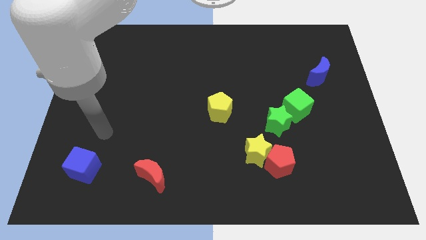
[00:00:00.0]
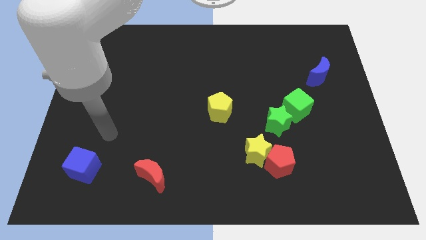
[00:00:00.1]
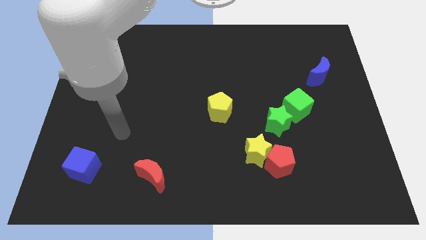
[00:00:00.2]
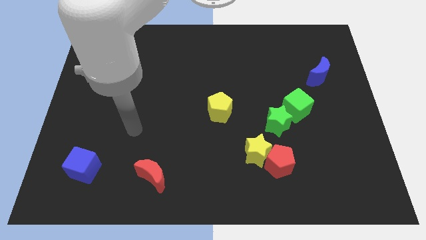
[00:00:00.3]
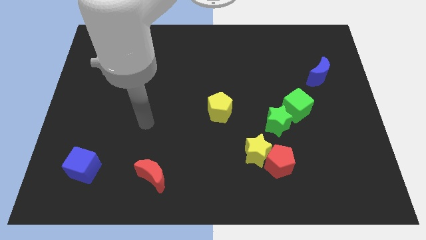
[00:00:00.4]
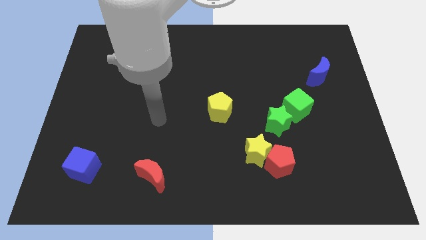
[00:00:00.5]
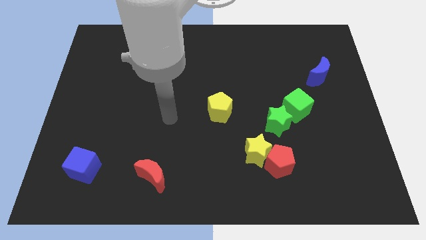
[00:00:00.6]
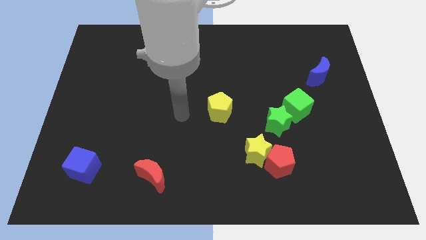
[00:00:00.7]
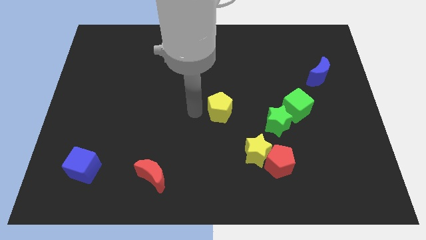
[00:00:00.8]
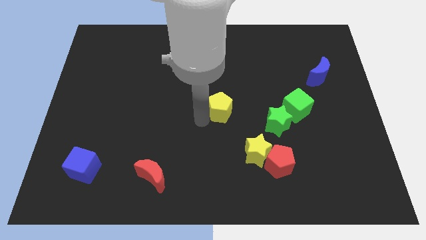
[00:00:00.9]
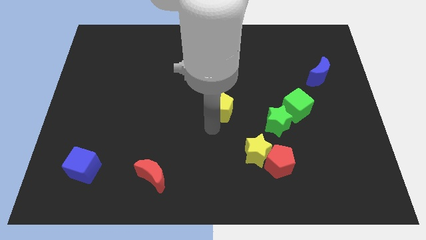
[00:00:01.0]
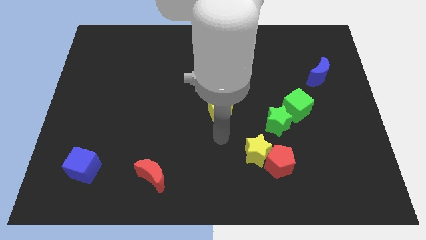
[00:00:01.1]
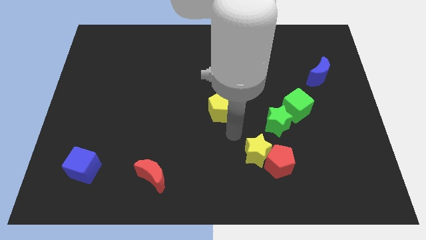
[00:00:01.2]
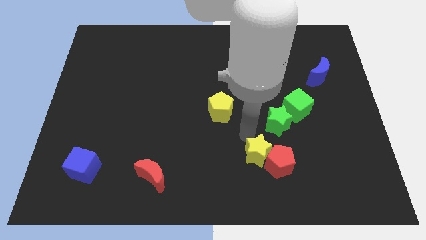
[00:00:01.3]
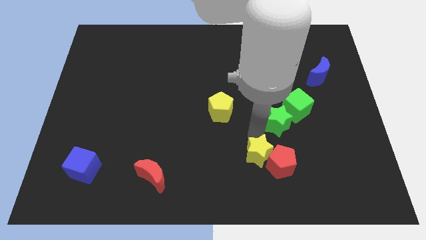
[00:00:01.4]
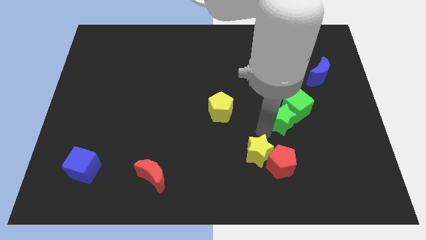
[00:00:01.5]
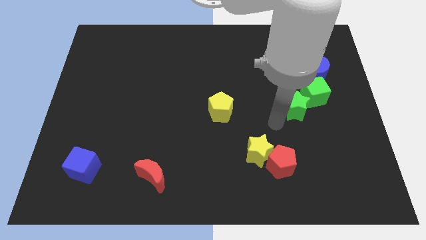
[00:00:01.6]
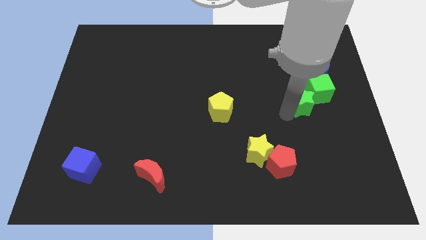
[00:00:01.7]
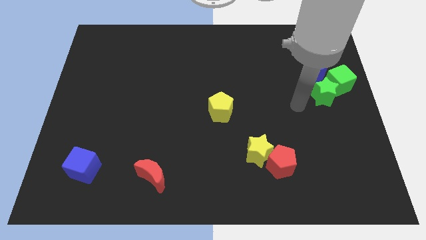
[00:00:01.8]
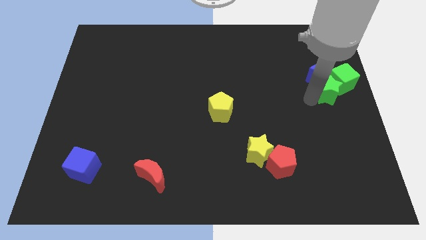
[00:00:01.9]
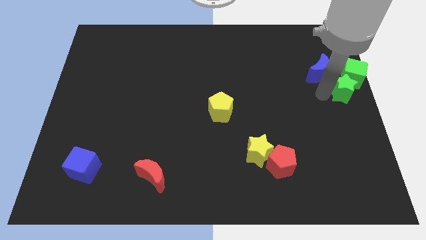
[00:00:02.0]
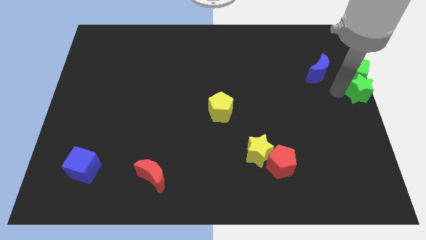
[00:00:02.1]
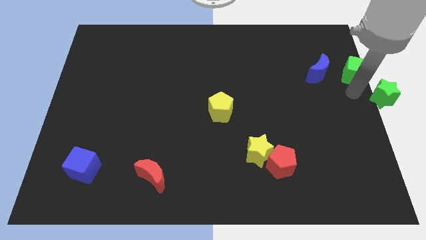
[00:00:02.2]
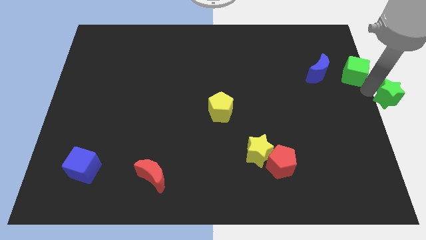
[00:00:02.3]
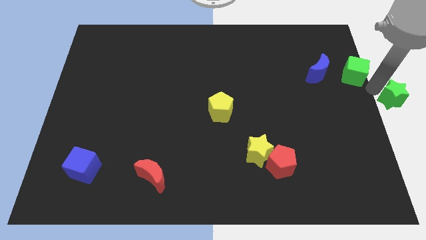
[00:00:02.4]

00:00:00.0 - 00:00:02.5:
move the green cube away from the green star

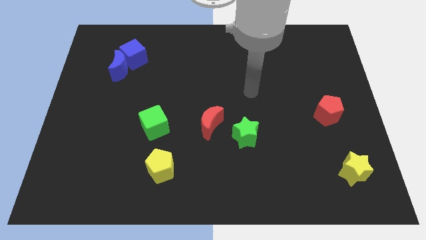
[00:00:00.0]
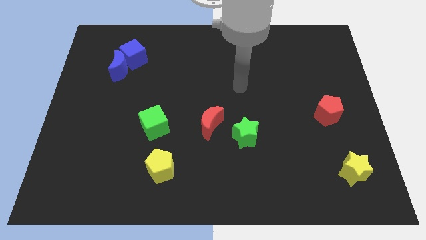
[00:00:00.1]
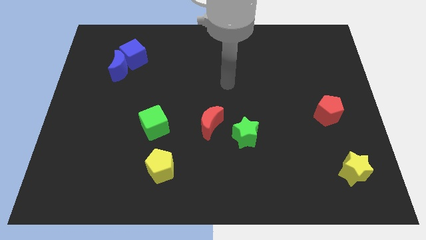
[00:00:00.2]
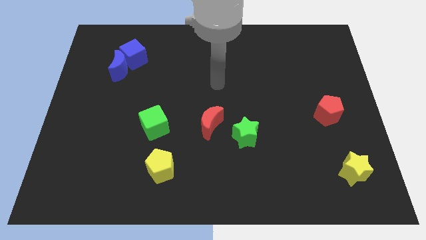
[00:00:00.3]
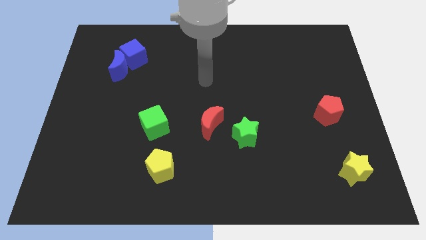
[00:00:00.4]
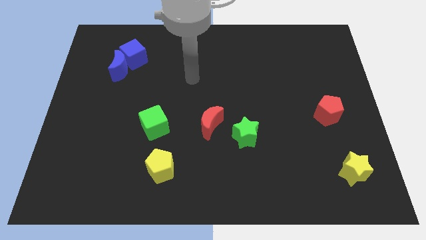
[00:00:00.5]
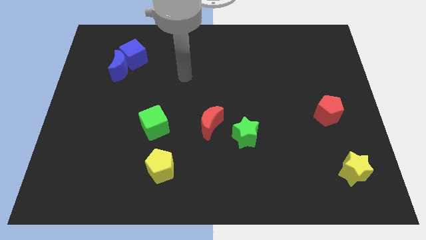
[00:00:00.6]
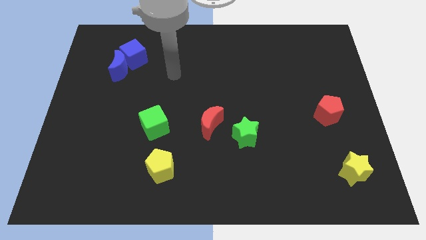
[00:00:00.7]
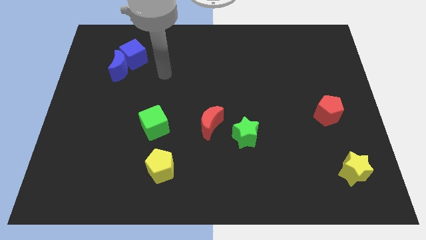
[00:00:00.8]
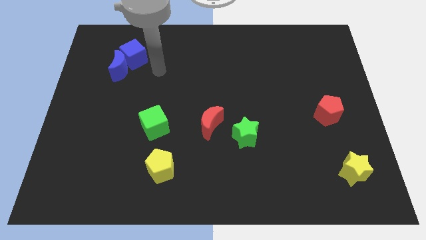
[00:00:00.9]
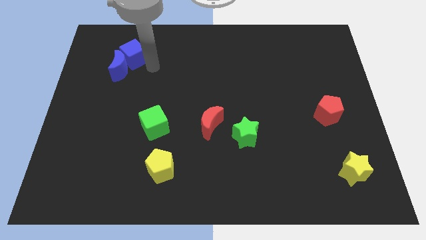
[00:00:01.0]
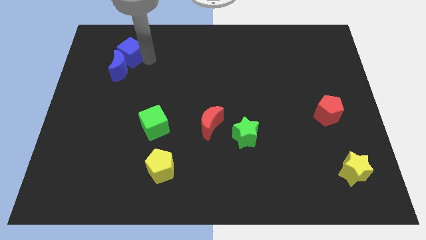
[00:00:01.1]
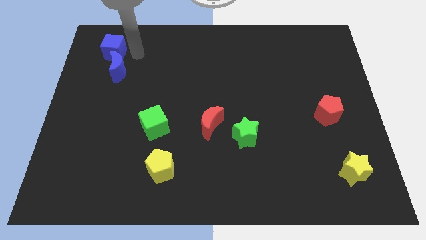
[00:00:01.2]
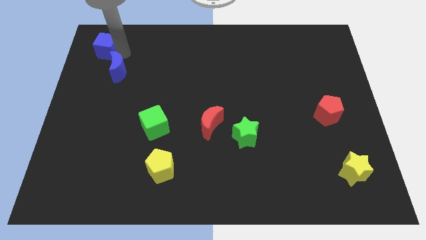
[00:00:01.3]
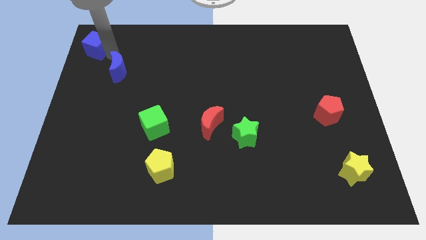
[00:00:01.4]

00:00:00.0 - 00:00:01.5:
separate the blue moon from the blue cube

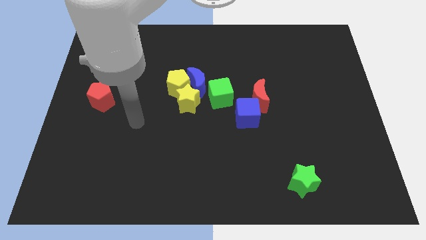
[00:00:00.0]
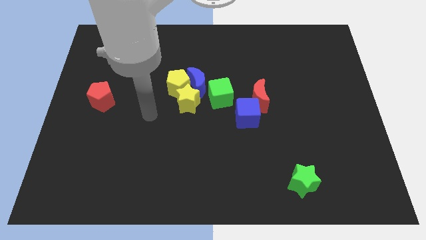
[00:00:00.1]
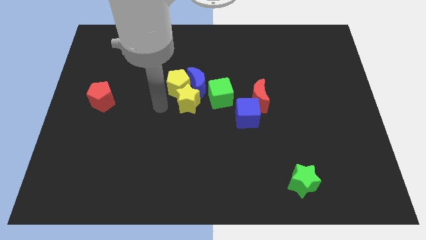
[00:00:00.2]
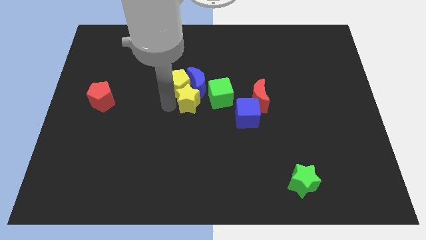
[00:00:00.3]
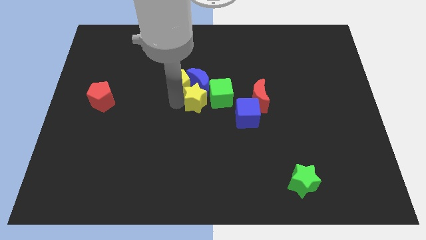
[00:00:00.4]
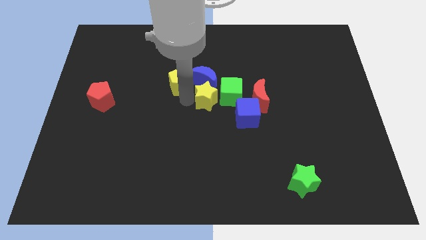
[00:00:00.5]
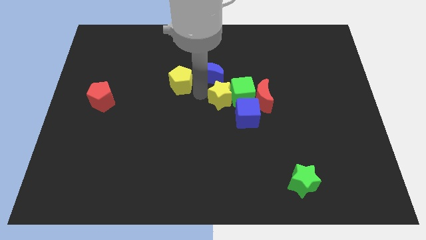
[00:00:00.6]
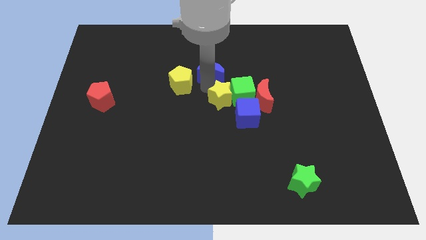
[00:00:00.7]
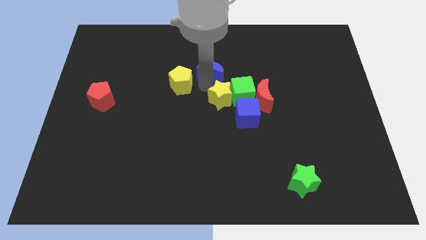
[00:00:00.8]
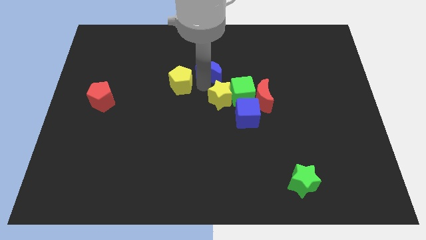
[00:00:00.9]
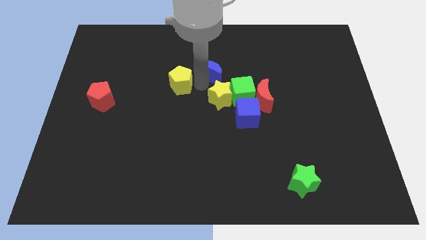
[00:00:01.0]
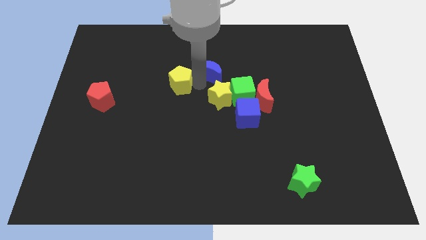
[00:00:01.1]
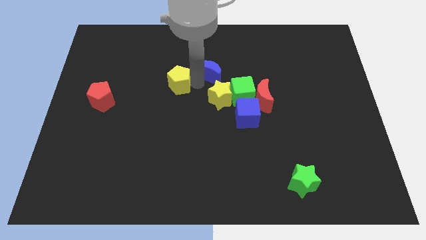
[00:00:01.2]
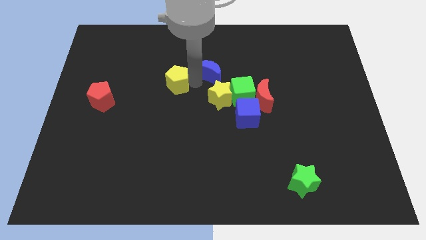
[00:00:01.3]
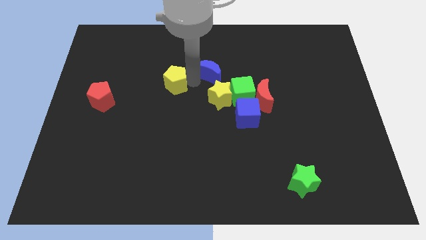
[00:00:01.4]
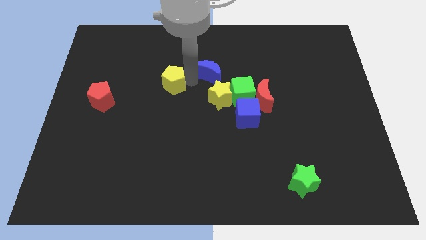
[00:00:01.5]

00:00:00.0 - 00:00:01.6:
pull the yellow pentagon apart from the blue moon and yellow star

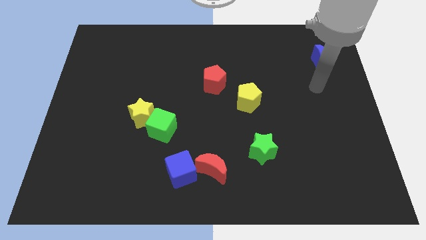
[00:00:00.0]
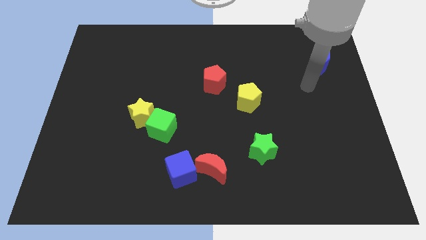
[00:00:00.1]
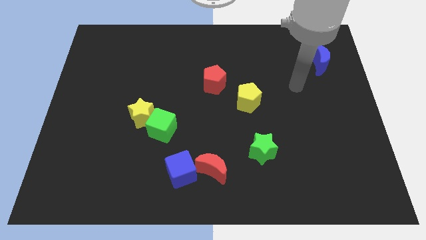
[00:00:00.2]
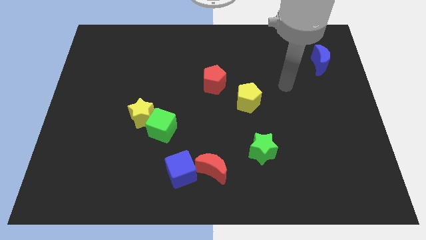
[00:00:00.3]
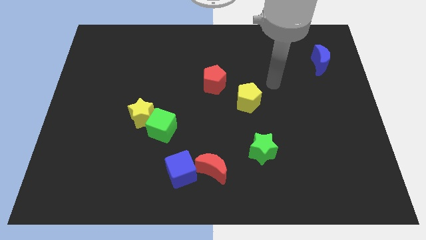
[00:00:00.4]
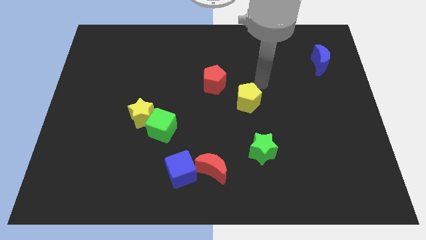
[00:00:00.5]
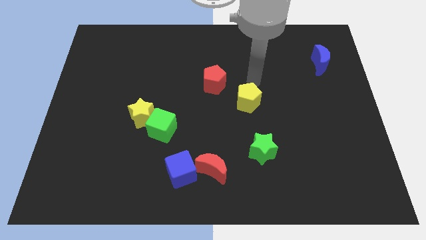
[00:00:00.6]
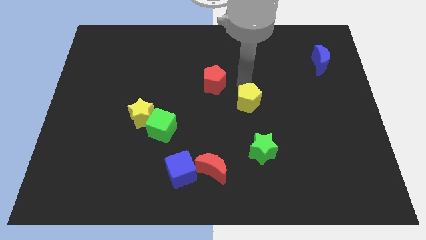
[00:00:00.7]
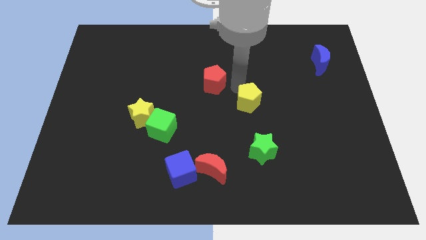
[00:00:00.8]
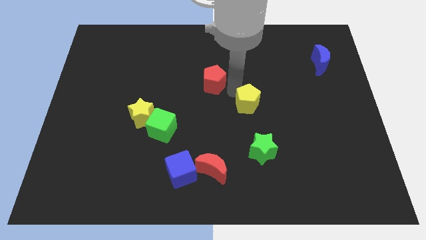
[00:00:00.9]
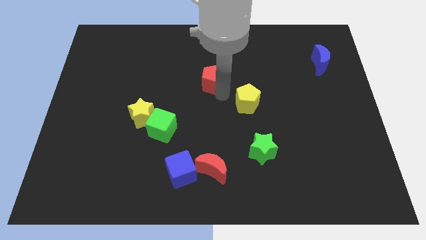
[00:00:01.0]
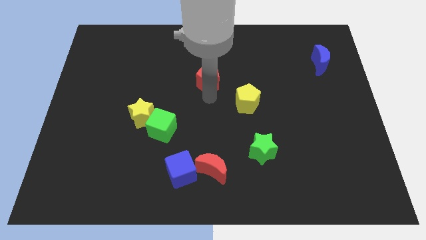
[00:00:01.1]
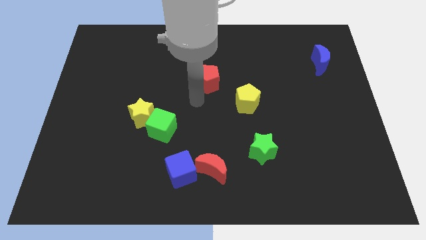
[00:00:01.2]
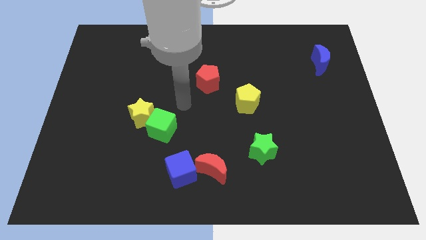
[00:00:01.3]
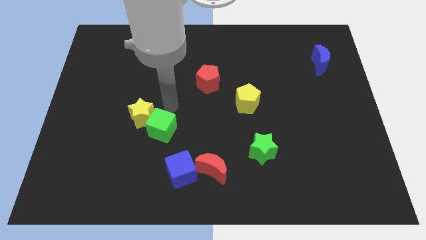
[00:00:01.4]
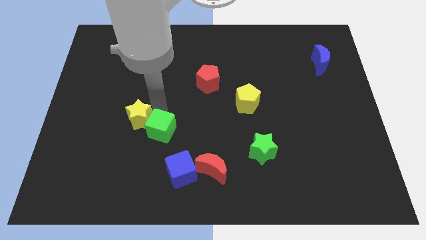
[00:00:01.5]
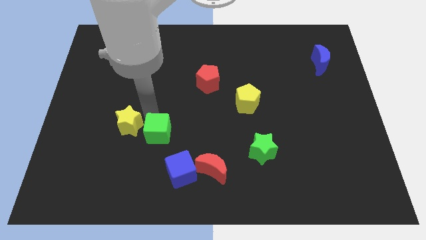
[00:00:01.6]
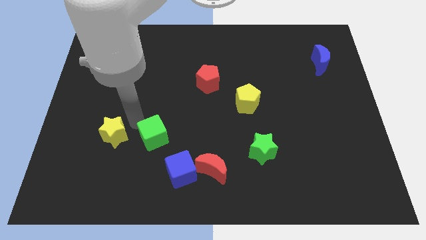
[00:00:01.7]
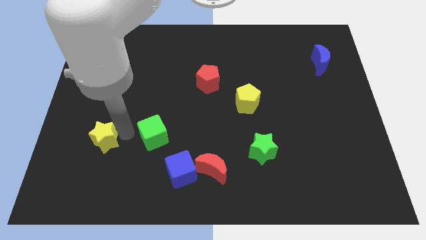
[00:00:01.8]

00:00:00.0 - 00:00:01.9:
pull the green cube apart from the yellow star

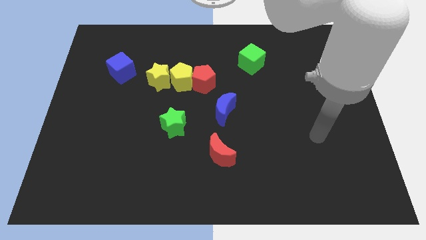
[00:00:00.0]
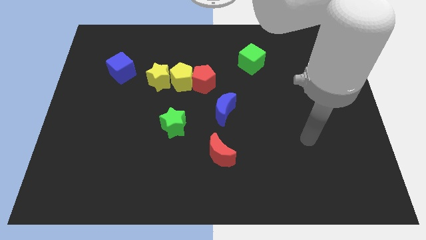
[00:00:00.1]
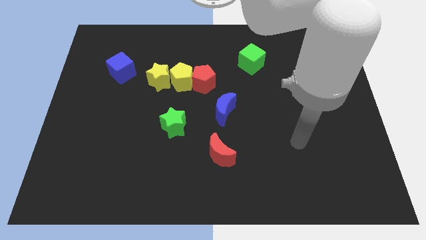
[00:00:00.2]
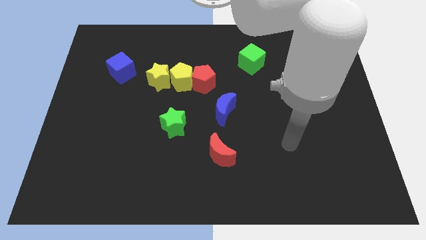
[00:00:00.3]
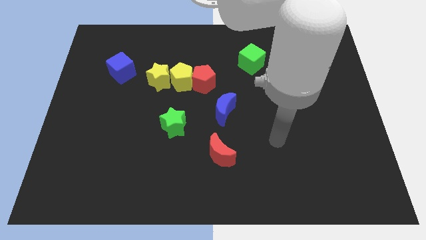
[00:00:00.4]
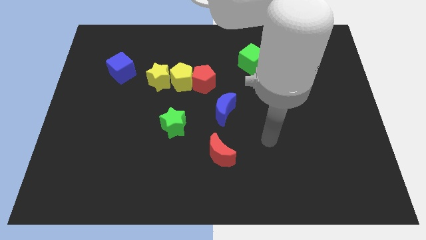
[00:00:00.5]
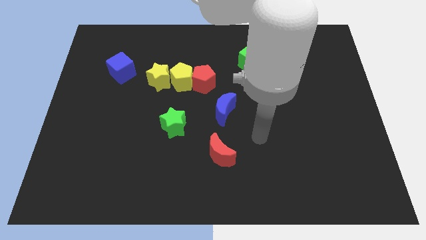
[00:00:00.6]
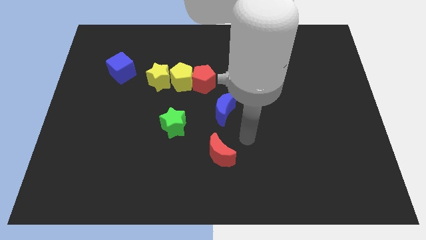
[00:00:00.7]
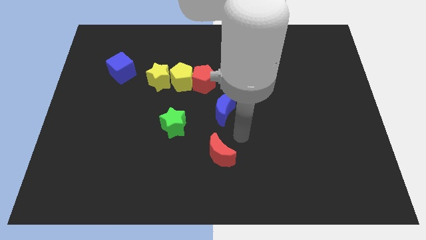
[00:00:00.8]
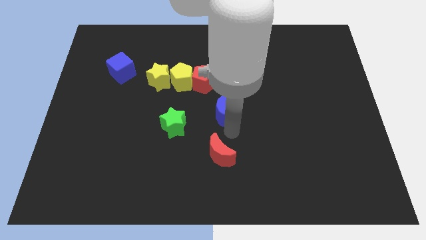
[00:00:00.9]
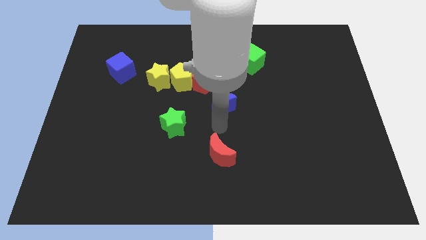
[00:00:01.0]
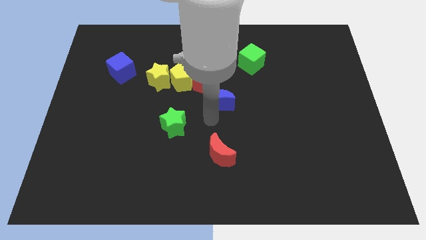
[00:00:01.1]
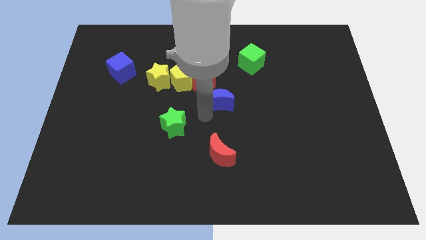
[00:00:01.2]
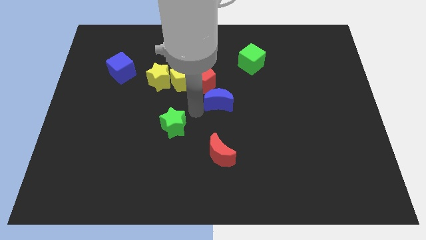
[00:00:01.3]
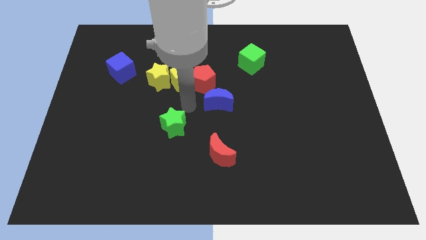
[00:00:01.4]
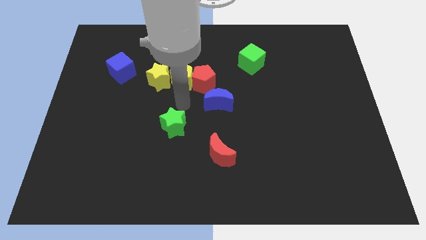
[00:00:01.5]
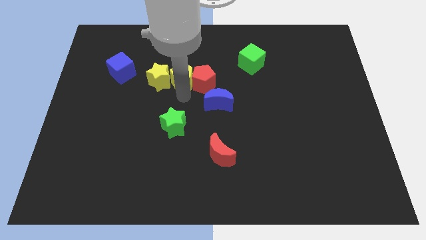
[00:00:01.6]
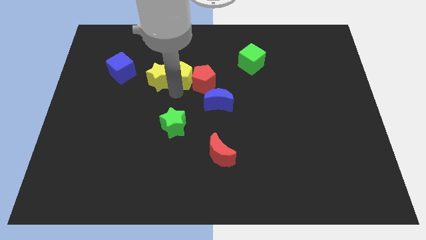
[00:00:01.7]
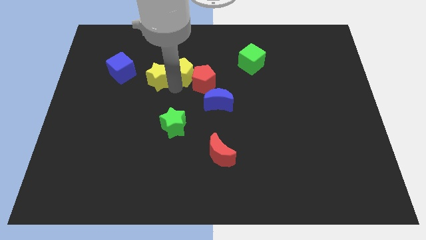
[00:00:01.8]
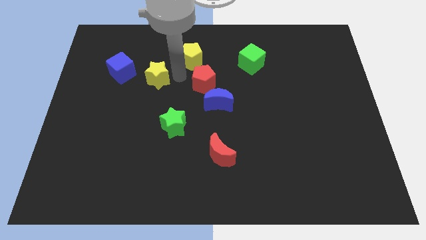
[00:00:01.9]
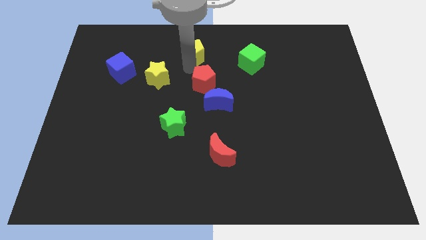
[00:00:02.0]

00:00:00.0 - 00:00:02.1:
move the red pentagon away from the yellow pentagon
